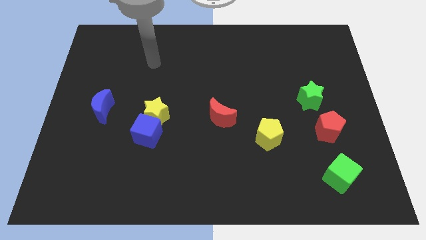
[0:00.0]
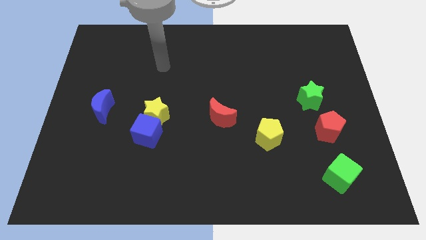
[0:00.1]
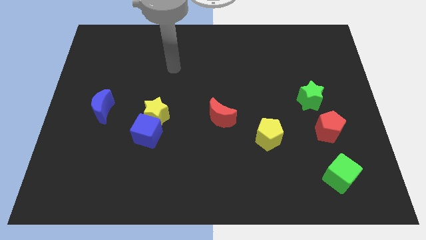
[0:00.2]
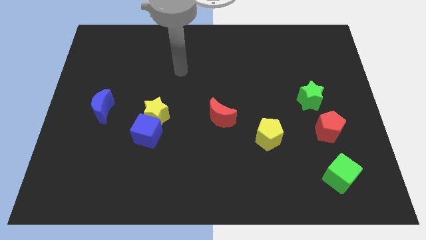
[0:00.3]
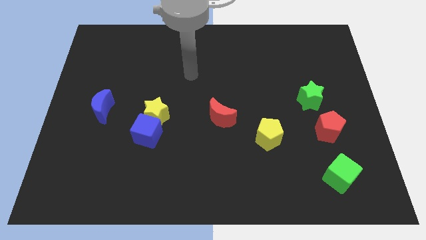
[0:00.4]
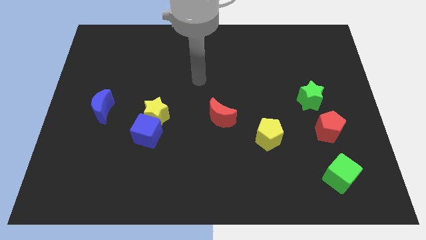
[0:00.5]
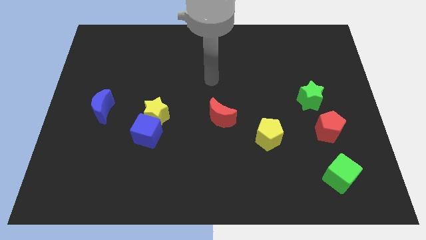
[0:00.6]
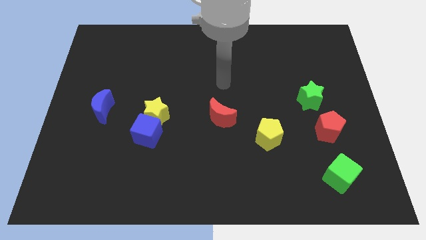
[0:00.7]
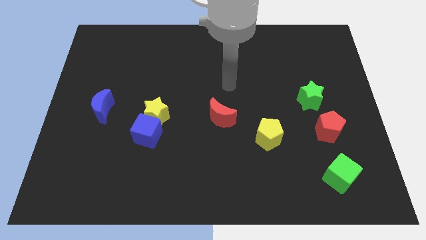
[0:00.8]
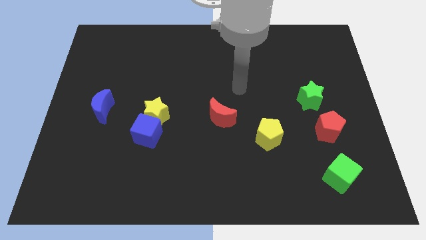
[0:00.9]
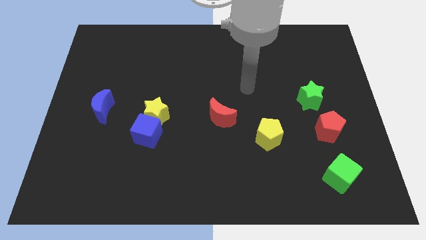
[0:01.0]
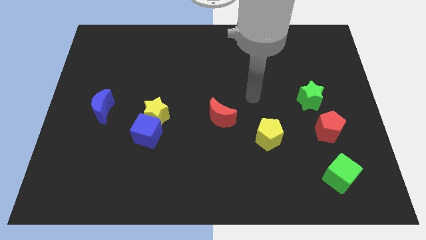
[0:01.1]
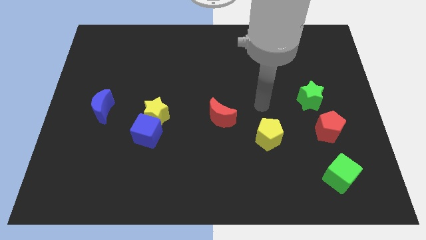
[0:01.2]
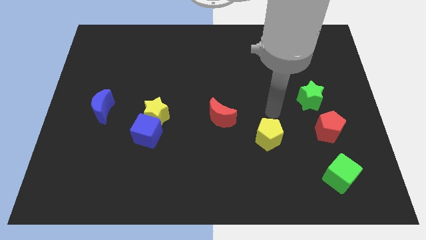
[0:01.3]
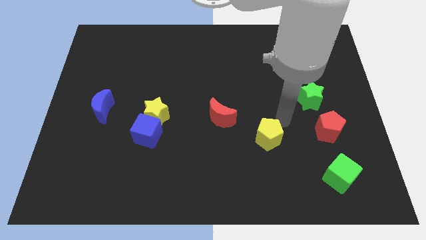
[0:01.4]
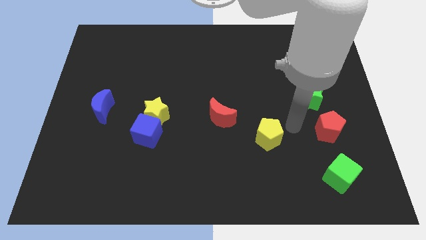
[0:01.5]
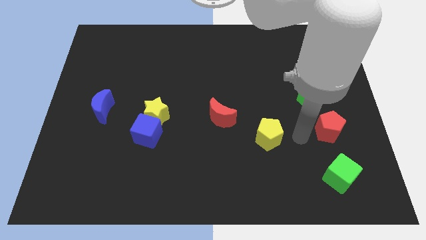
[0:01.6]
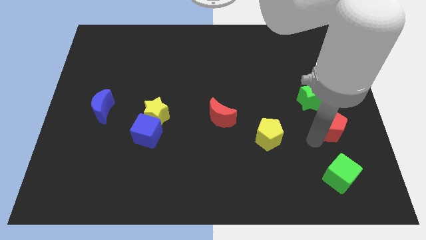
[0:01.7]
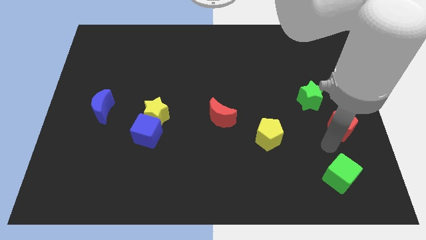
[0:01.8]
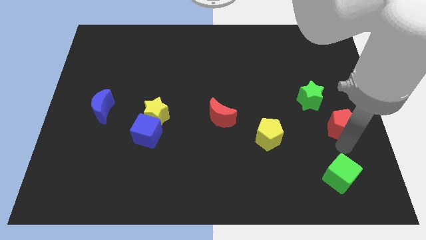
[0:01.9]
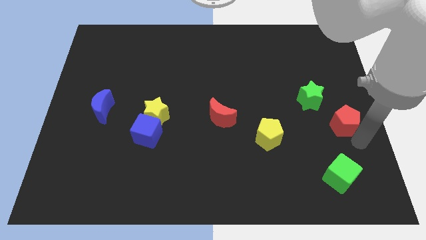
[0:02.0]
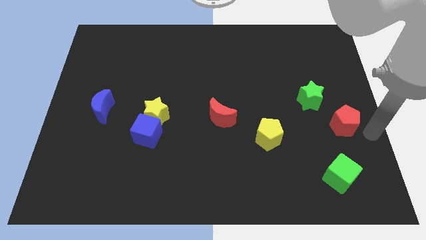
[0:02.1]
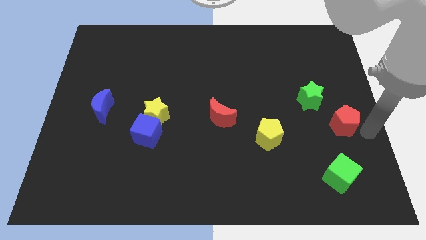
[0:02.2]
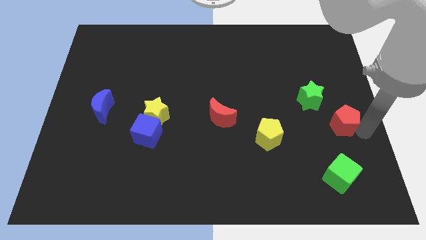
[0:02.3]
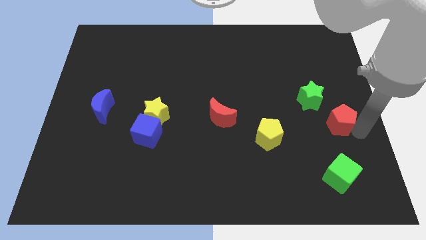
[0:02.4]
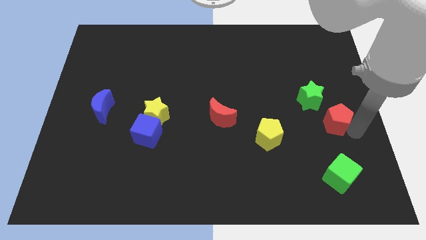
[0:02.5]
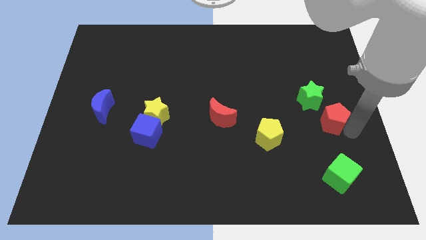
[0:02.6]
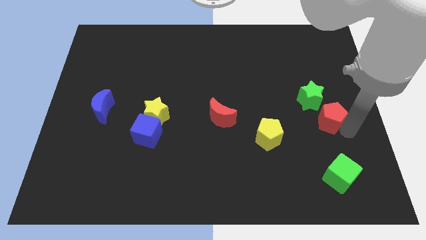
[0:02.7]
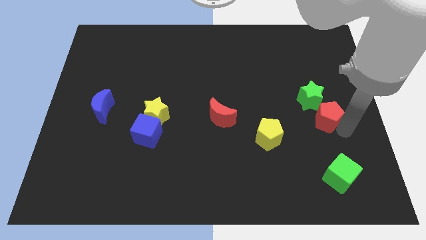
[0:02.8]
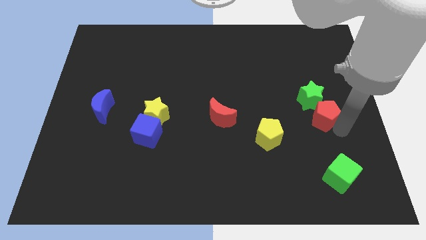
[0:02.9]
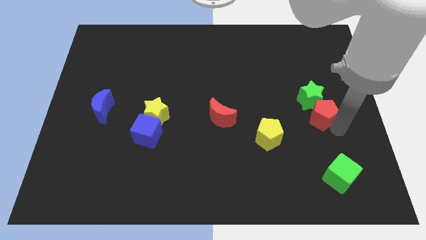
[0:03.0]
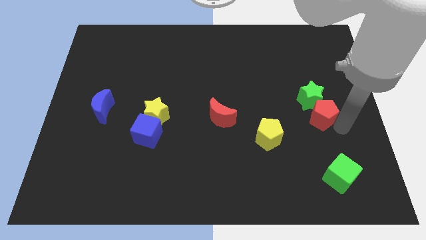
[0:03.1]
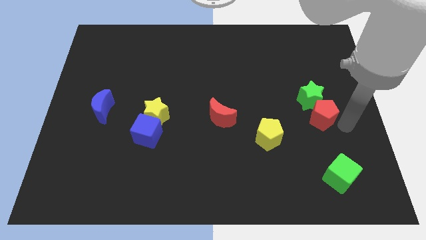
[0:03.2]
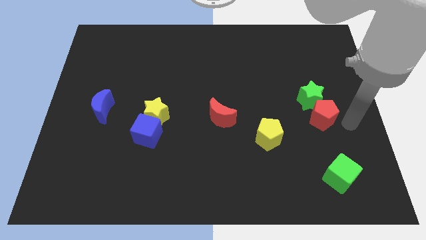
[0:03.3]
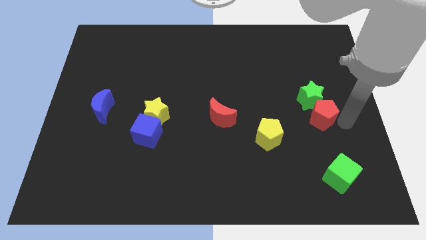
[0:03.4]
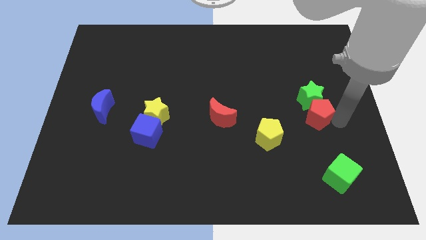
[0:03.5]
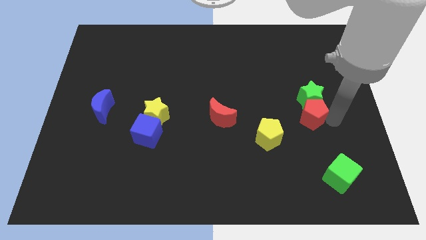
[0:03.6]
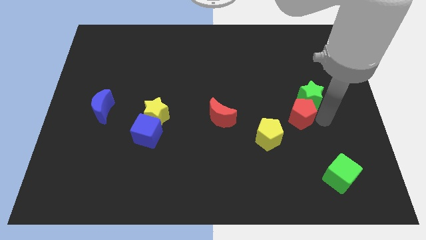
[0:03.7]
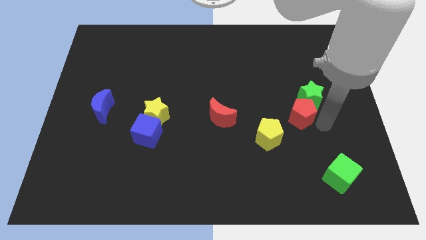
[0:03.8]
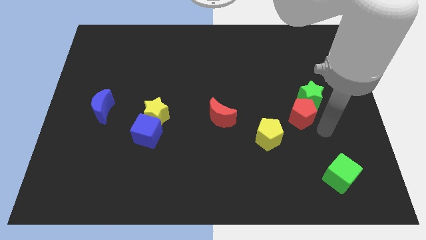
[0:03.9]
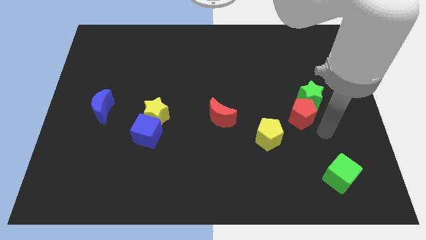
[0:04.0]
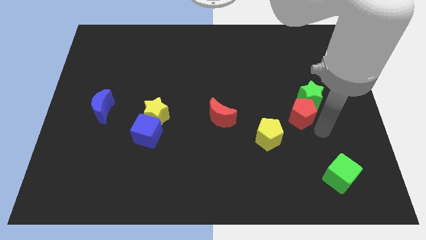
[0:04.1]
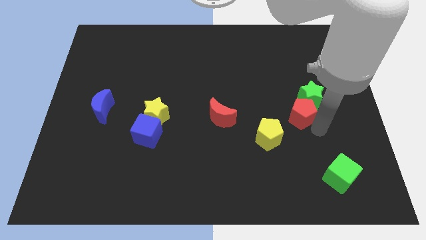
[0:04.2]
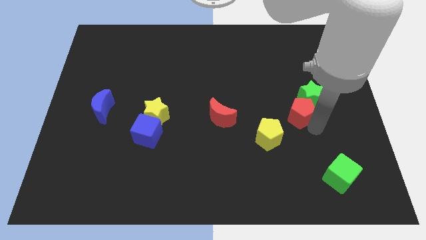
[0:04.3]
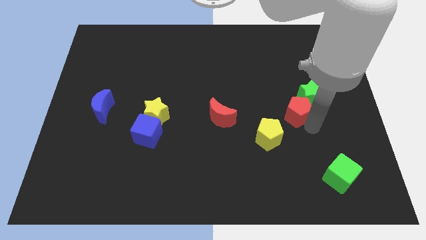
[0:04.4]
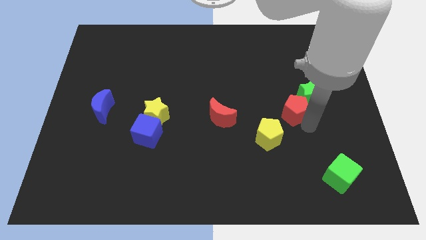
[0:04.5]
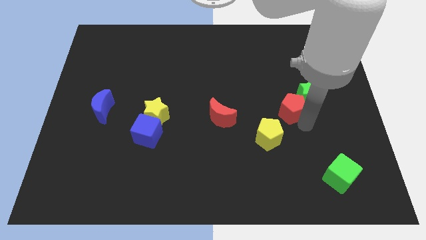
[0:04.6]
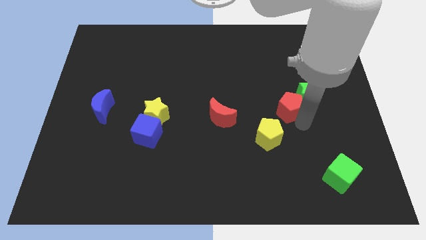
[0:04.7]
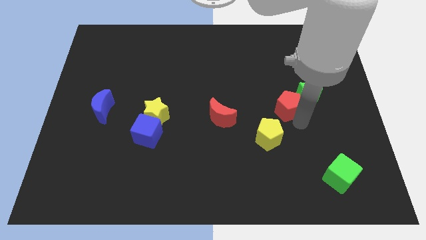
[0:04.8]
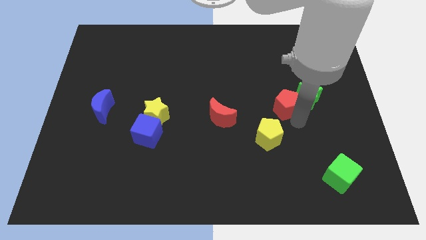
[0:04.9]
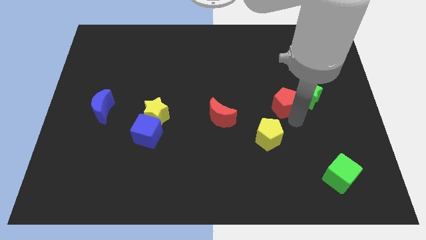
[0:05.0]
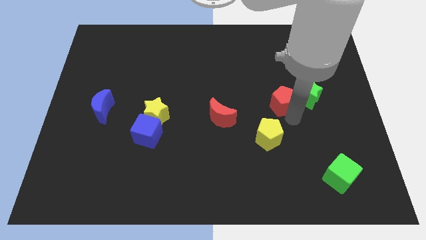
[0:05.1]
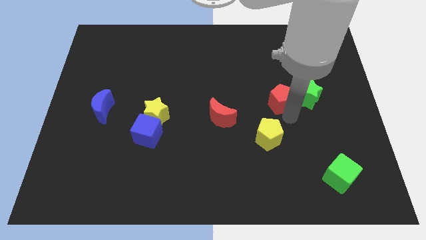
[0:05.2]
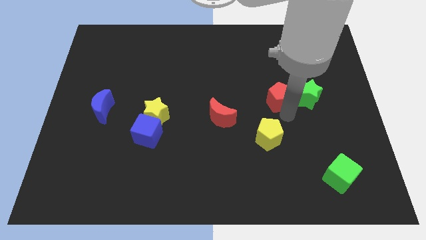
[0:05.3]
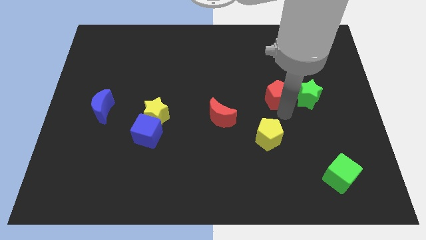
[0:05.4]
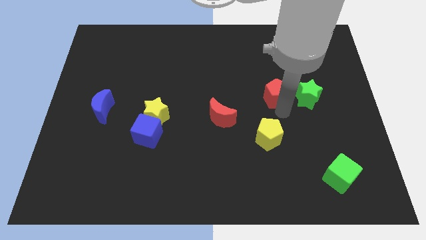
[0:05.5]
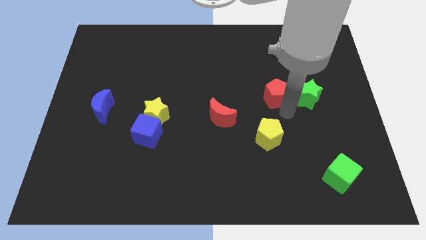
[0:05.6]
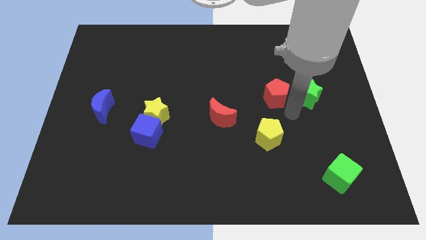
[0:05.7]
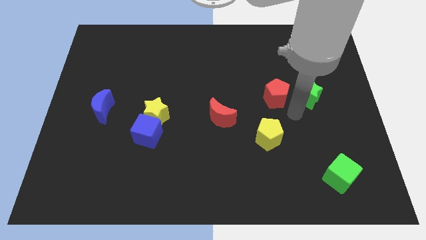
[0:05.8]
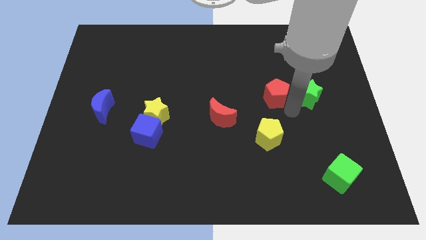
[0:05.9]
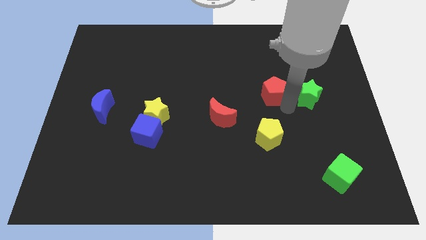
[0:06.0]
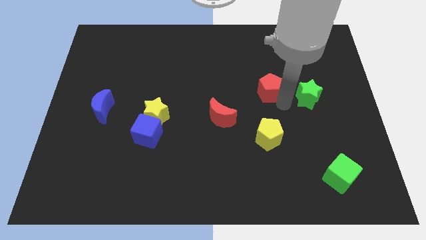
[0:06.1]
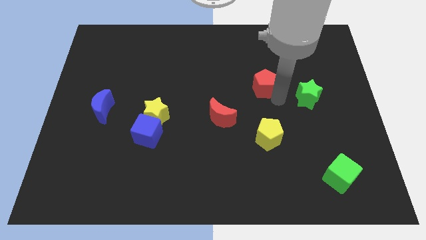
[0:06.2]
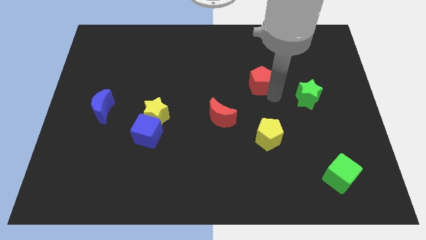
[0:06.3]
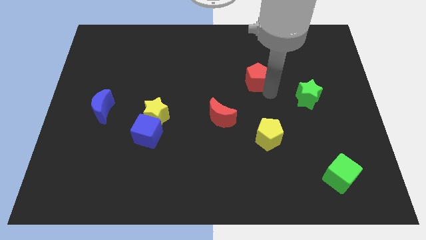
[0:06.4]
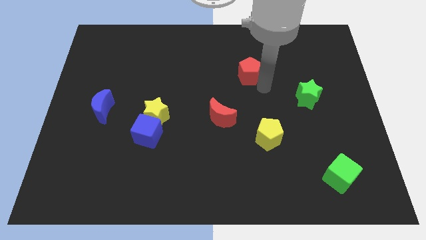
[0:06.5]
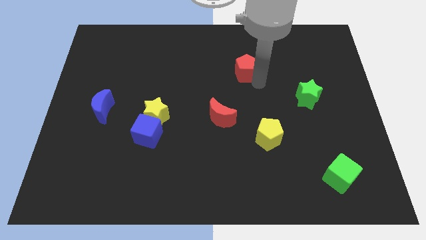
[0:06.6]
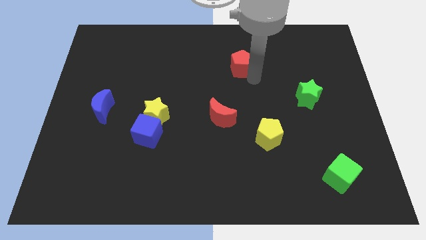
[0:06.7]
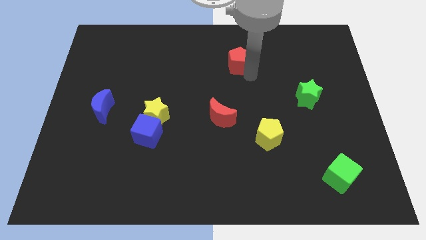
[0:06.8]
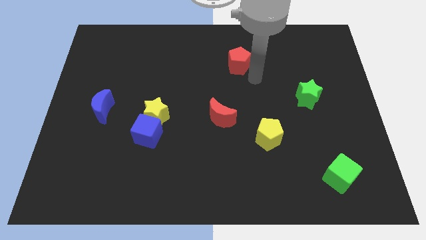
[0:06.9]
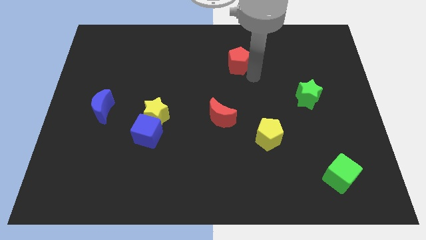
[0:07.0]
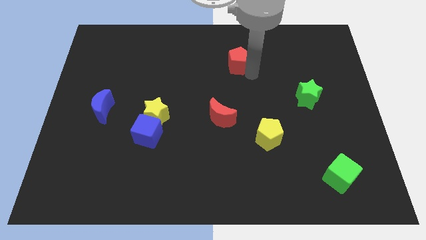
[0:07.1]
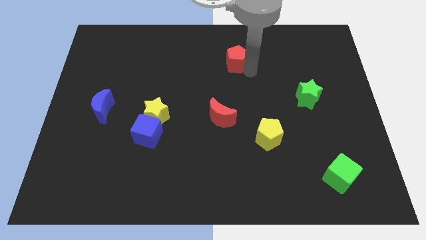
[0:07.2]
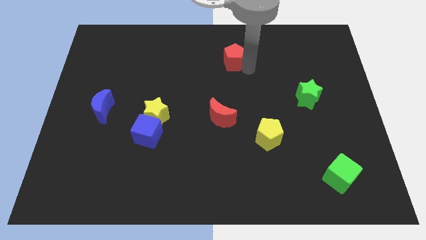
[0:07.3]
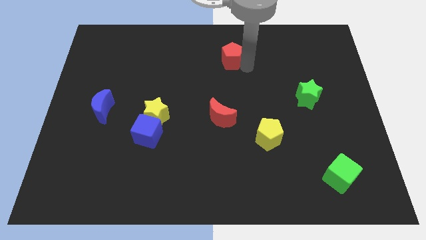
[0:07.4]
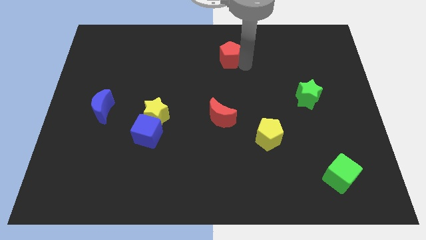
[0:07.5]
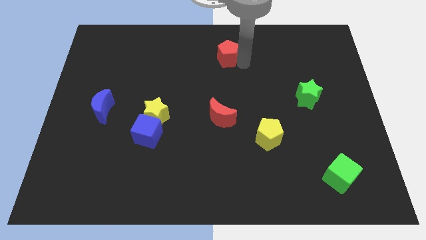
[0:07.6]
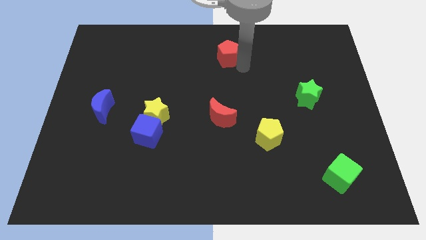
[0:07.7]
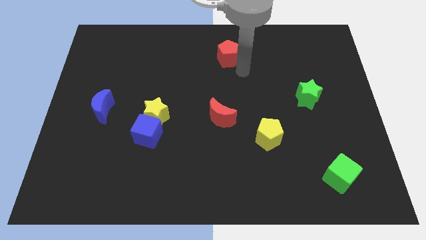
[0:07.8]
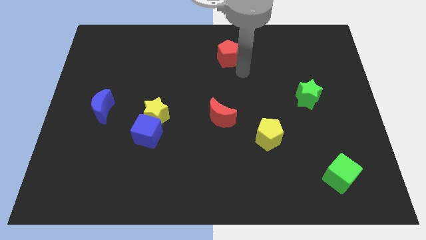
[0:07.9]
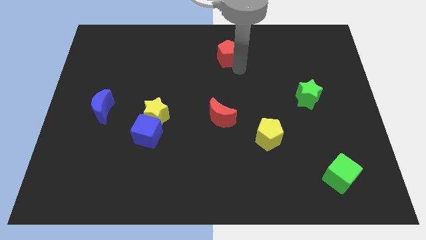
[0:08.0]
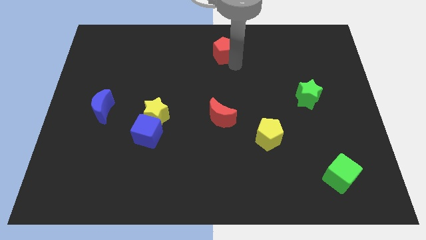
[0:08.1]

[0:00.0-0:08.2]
move the red pentagon to the towards your base
